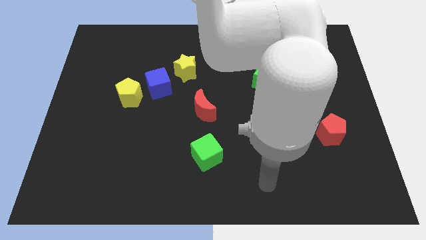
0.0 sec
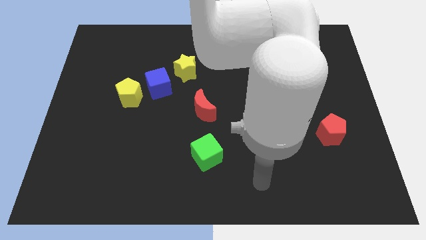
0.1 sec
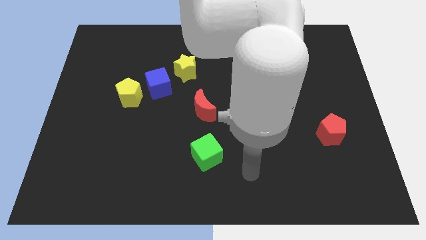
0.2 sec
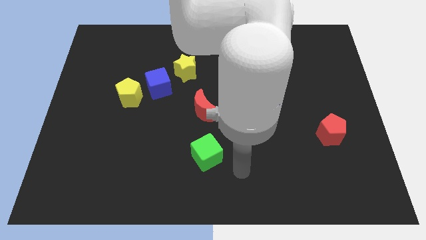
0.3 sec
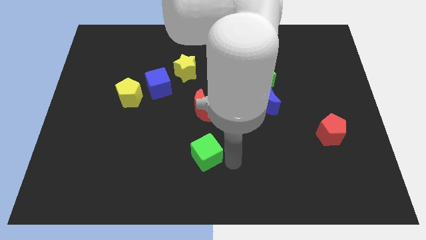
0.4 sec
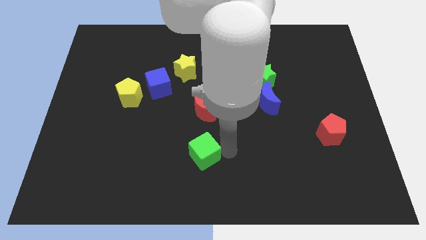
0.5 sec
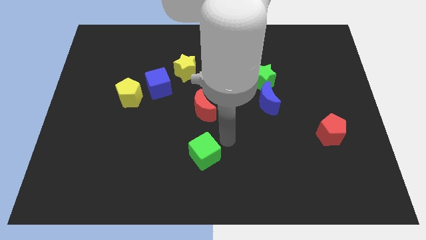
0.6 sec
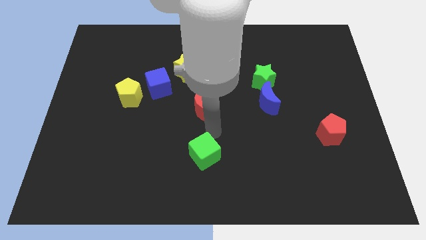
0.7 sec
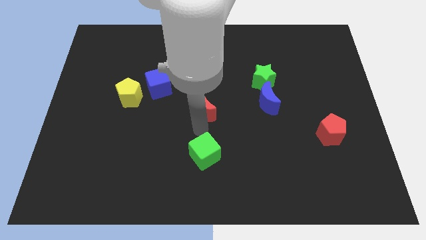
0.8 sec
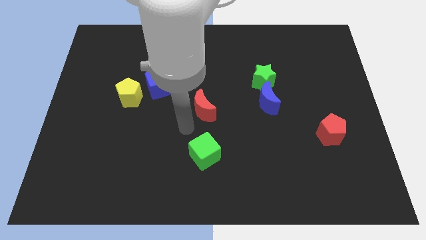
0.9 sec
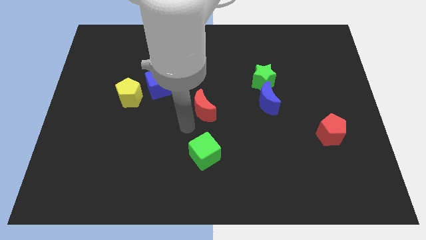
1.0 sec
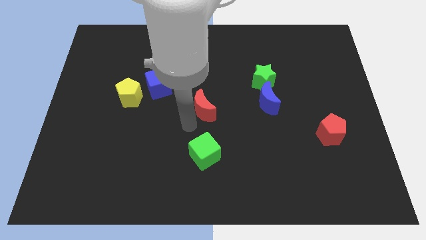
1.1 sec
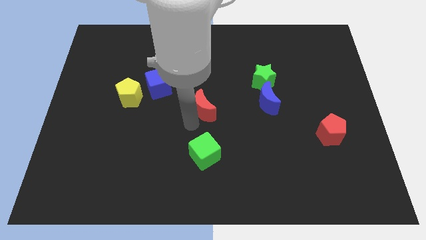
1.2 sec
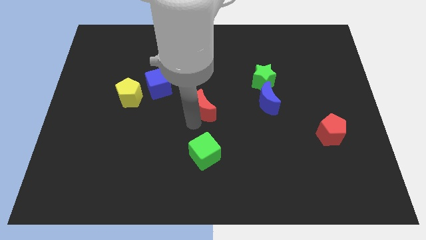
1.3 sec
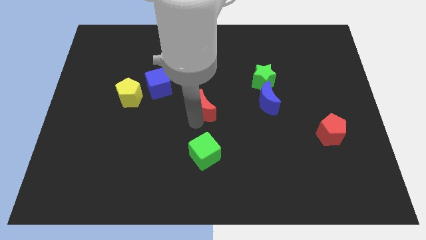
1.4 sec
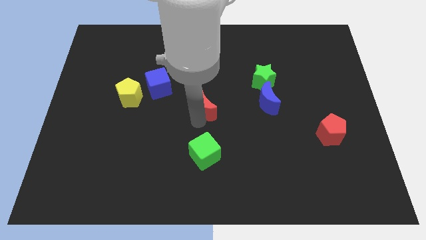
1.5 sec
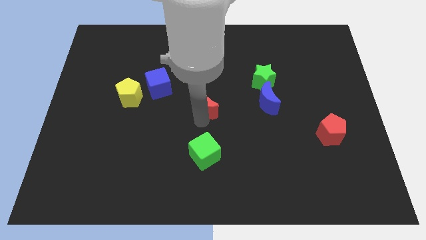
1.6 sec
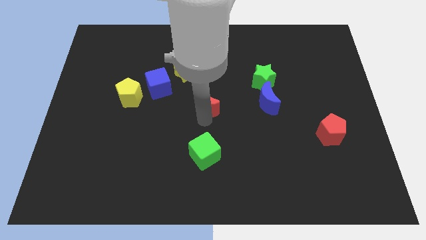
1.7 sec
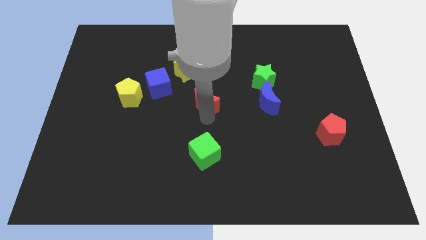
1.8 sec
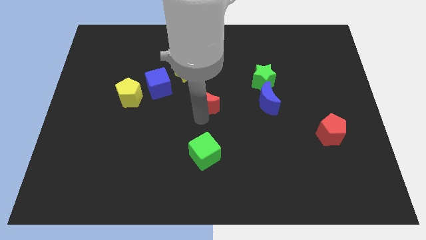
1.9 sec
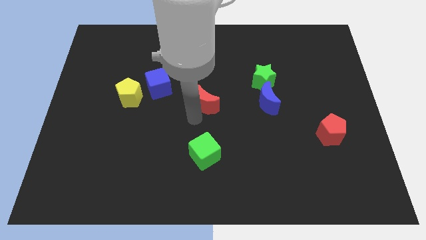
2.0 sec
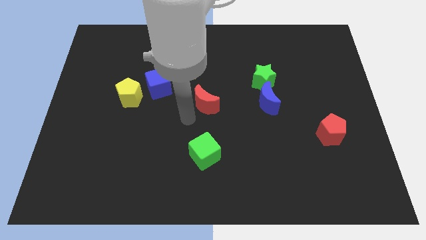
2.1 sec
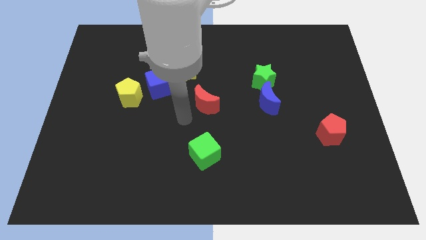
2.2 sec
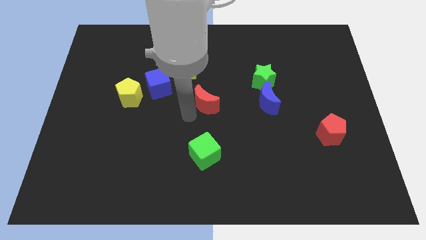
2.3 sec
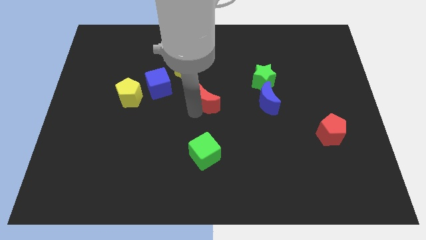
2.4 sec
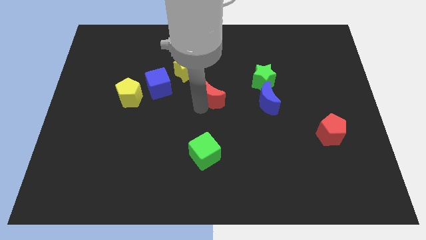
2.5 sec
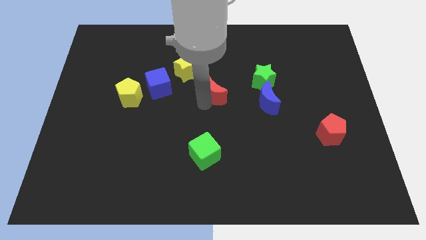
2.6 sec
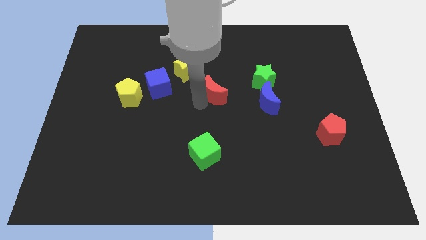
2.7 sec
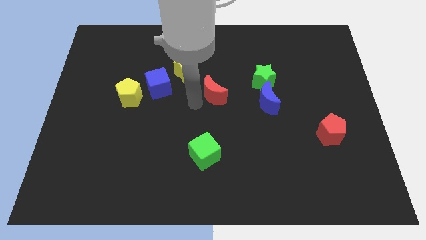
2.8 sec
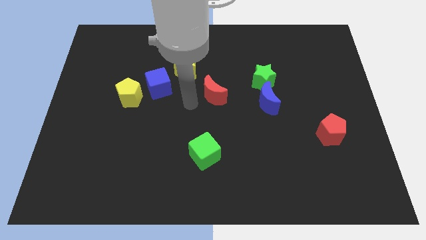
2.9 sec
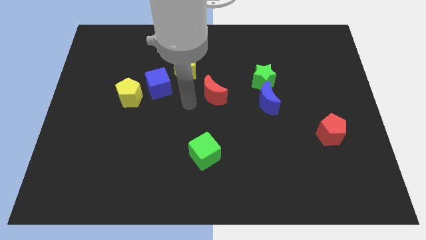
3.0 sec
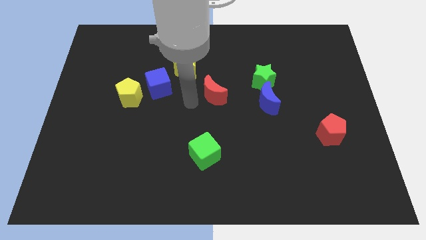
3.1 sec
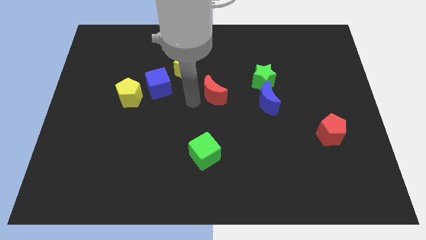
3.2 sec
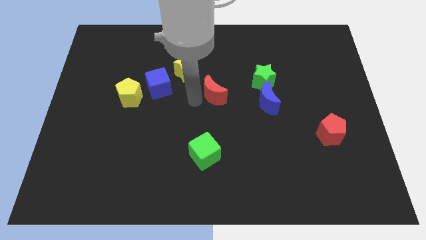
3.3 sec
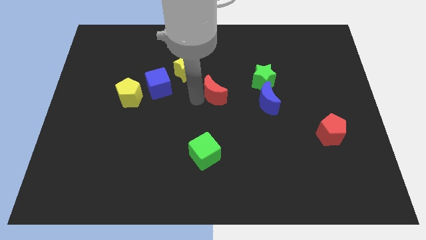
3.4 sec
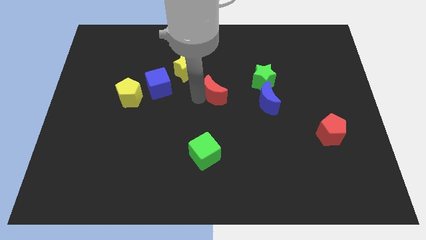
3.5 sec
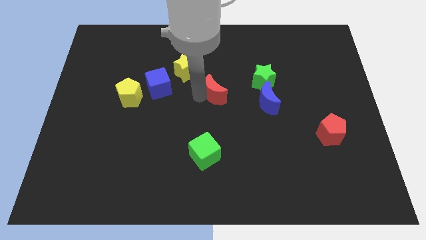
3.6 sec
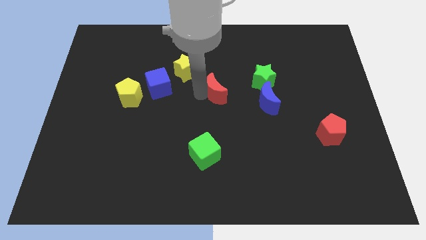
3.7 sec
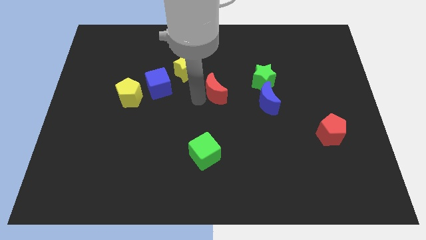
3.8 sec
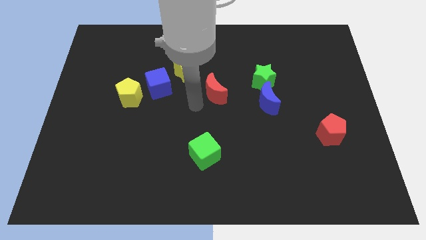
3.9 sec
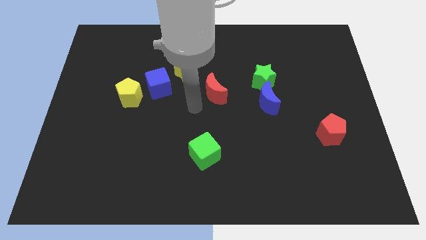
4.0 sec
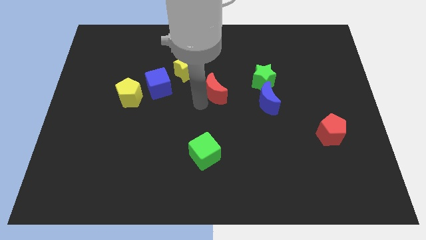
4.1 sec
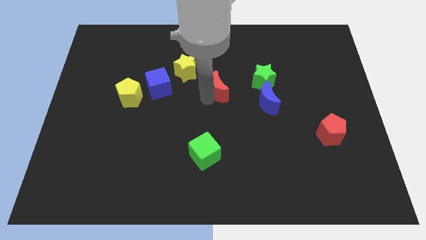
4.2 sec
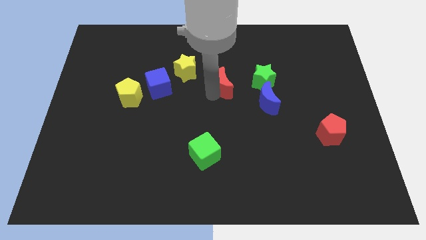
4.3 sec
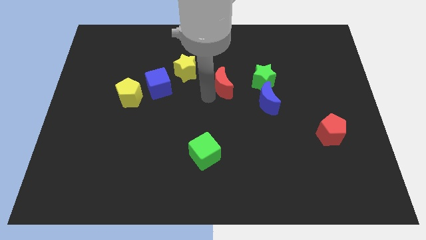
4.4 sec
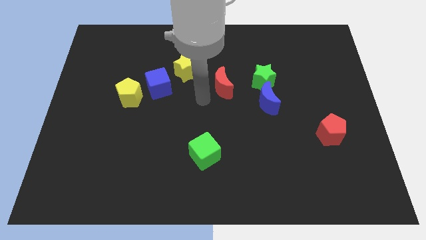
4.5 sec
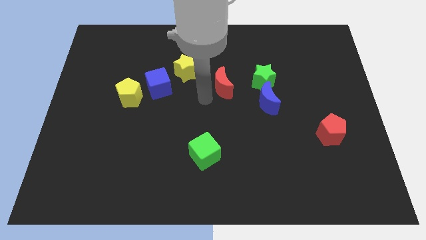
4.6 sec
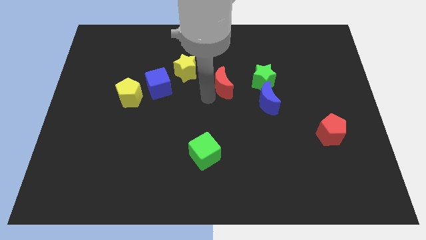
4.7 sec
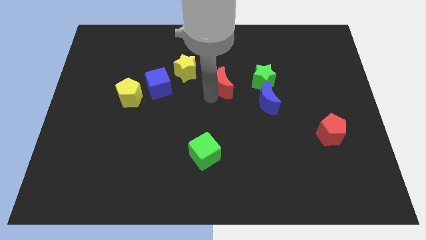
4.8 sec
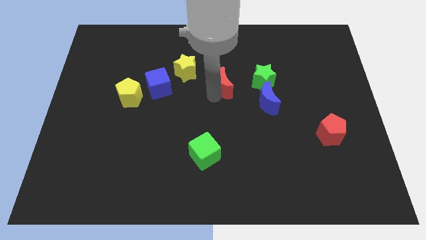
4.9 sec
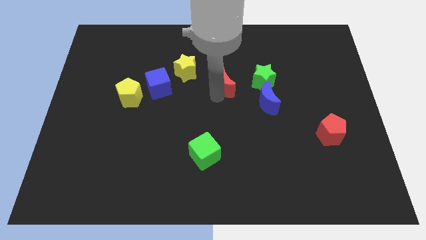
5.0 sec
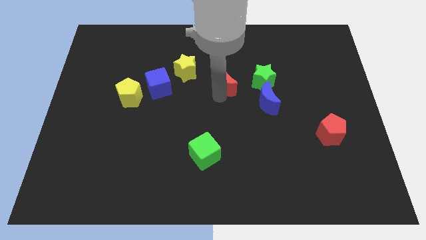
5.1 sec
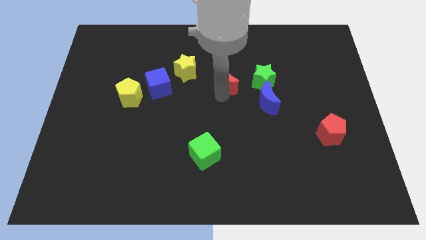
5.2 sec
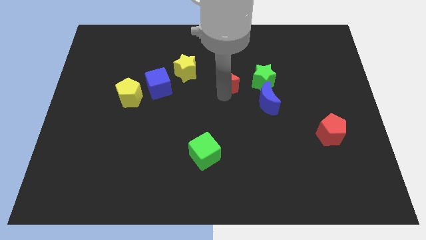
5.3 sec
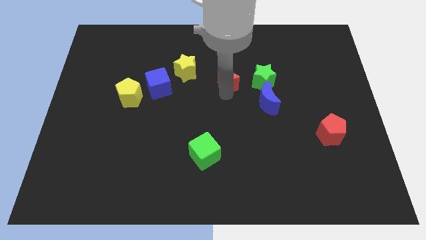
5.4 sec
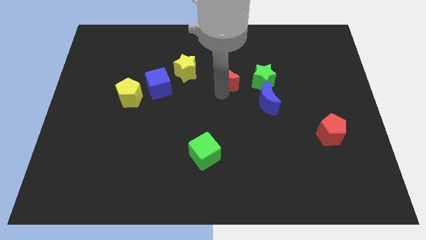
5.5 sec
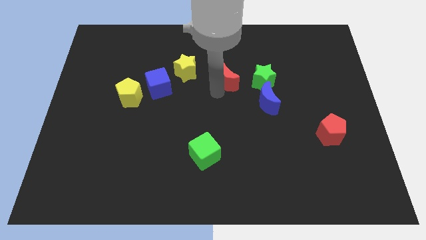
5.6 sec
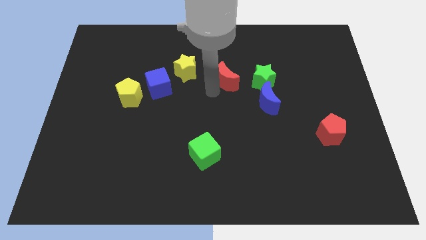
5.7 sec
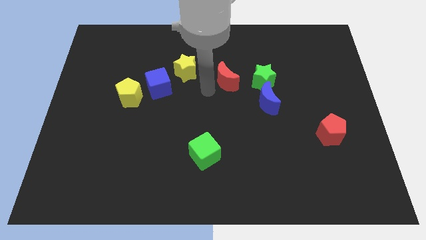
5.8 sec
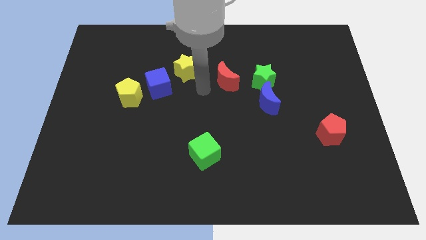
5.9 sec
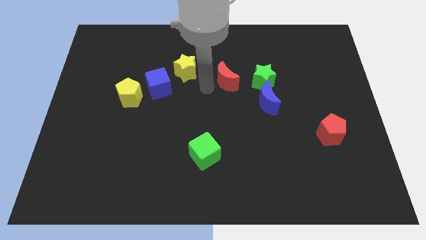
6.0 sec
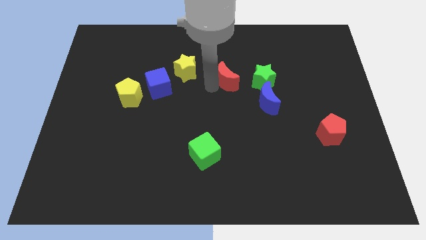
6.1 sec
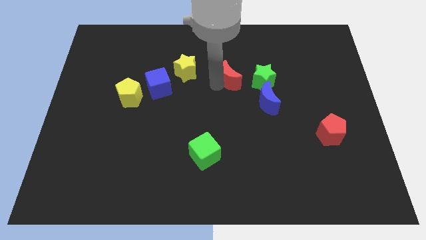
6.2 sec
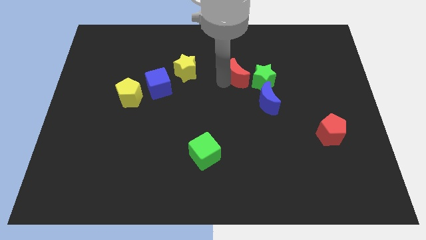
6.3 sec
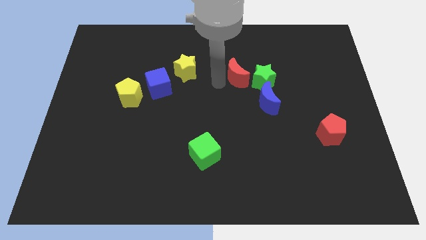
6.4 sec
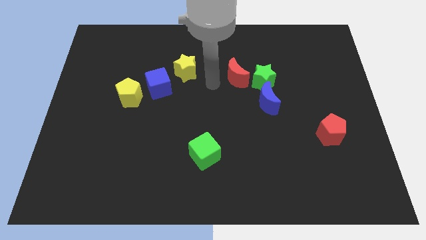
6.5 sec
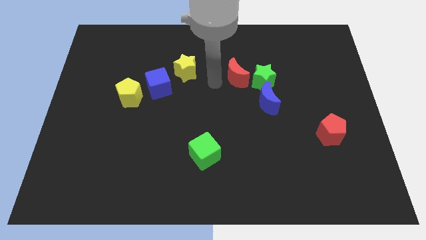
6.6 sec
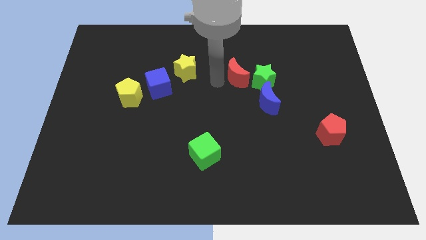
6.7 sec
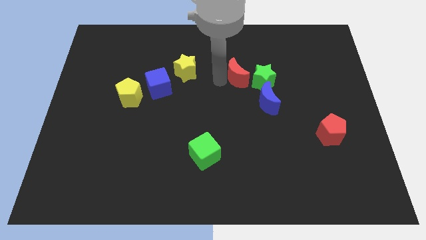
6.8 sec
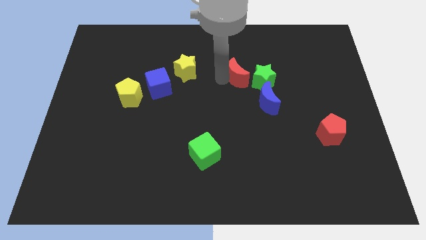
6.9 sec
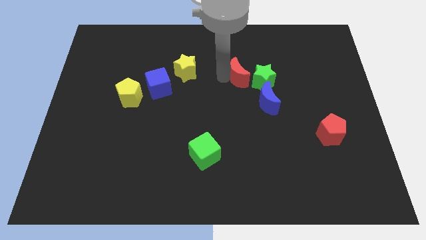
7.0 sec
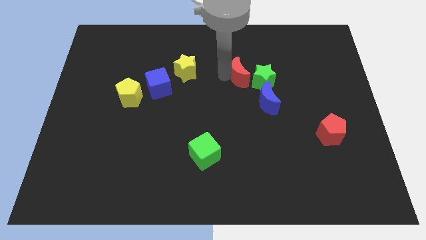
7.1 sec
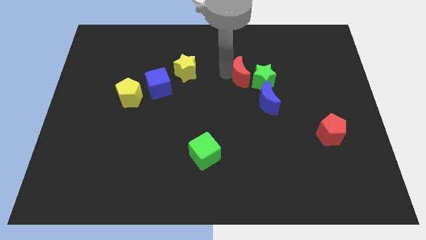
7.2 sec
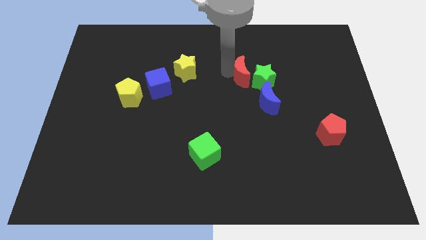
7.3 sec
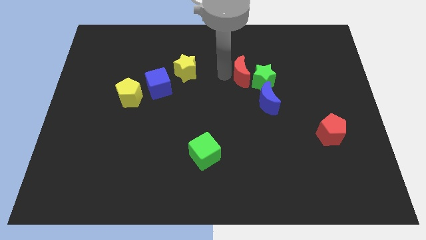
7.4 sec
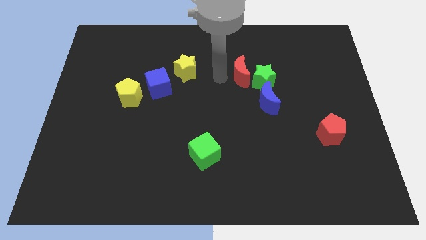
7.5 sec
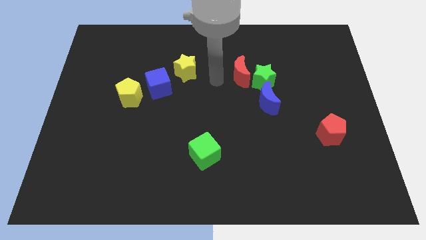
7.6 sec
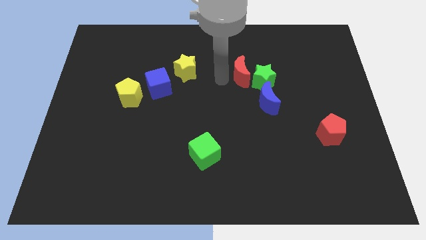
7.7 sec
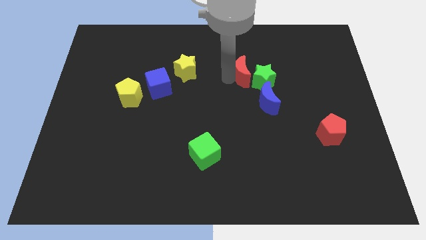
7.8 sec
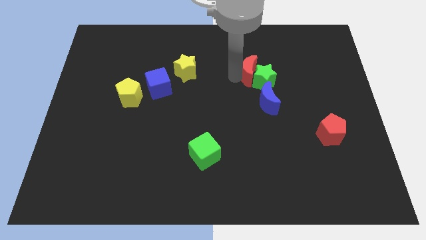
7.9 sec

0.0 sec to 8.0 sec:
push the red moon to the top side of the blue moon
